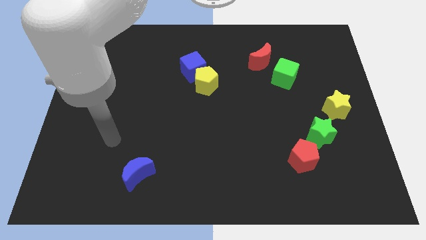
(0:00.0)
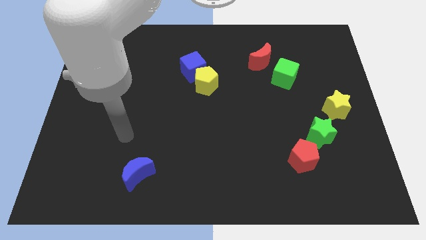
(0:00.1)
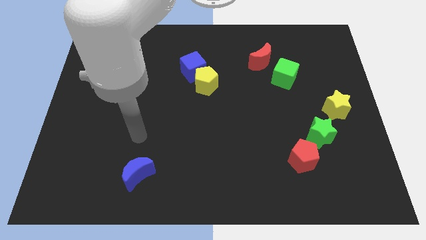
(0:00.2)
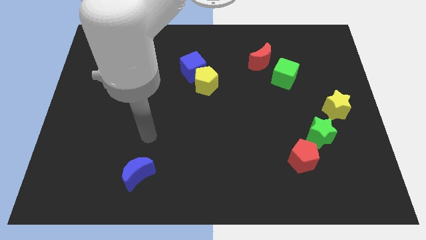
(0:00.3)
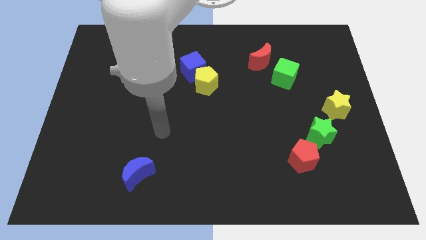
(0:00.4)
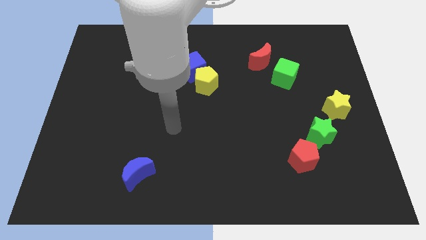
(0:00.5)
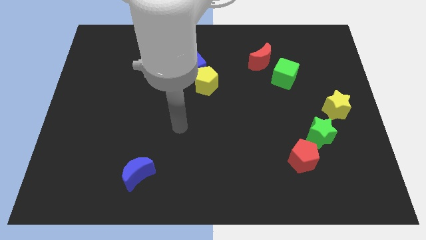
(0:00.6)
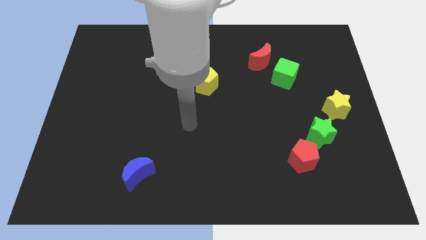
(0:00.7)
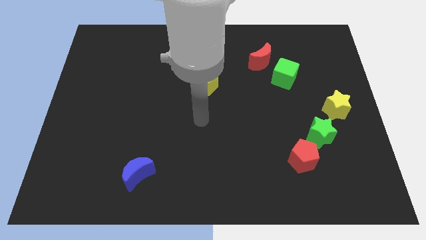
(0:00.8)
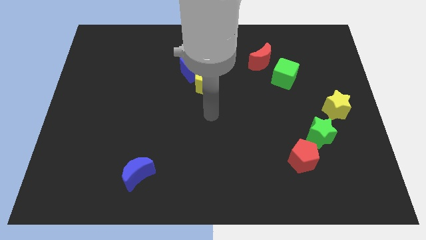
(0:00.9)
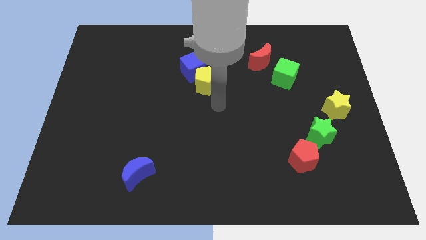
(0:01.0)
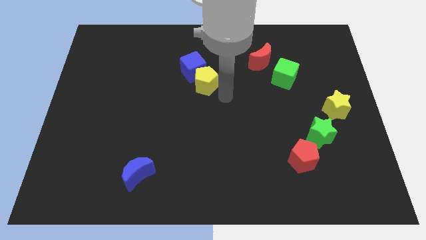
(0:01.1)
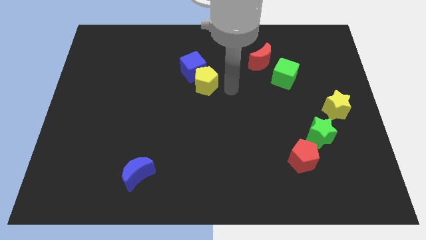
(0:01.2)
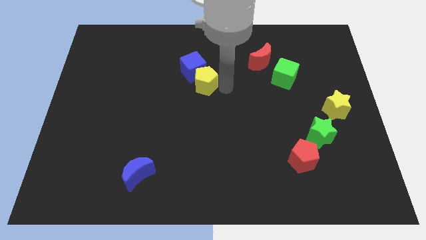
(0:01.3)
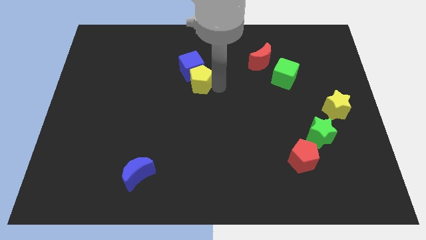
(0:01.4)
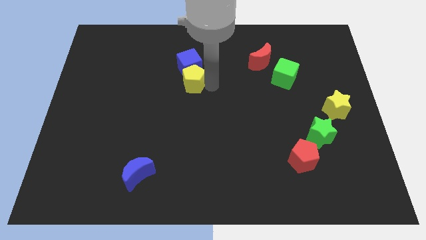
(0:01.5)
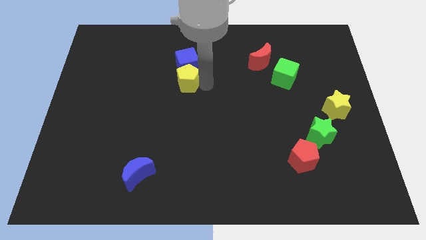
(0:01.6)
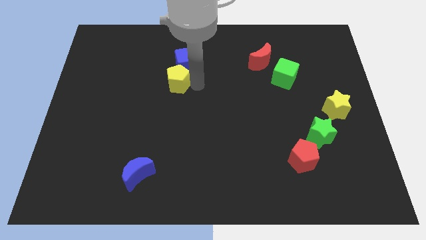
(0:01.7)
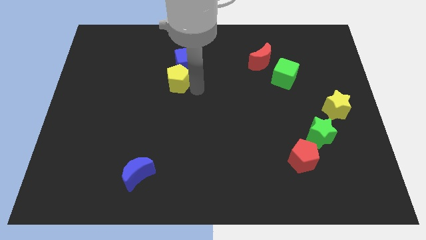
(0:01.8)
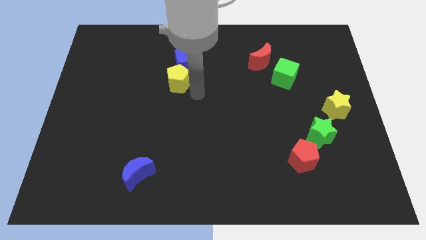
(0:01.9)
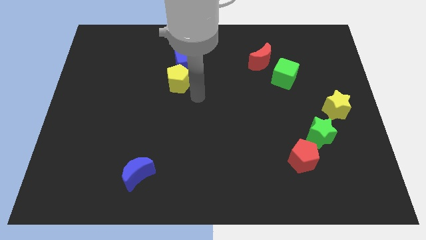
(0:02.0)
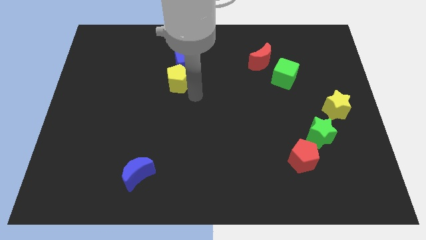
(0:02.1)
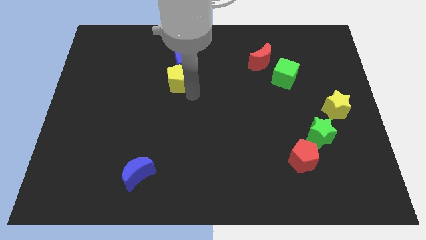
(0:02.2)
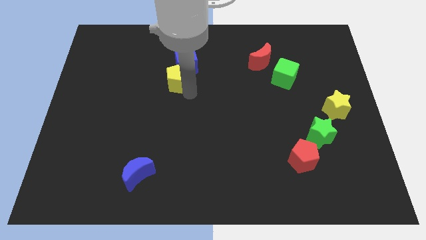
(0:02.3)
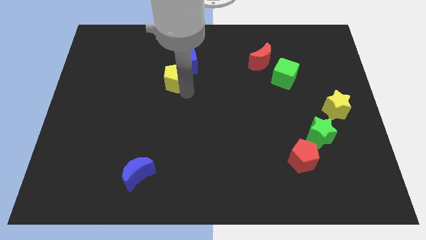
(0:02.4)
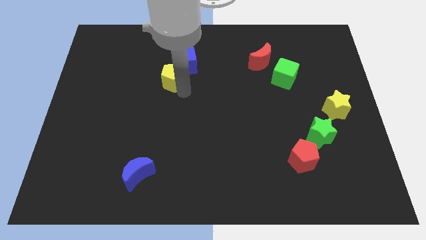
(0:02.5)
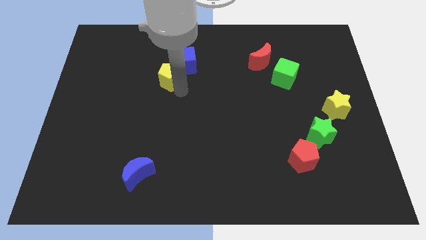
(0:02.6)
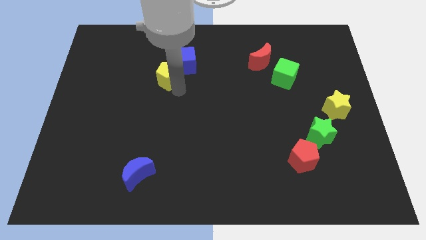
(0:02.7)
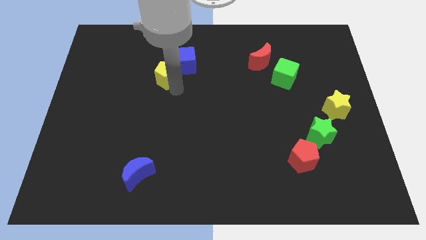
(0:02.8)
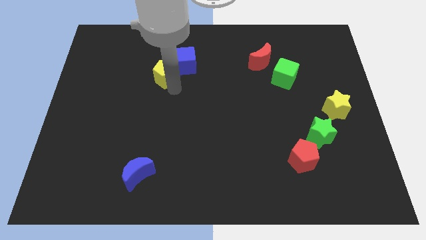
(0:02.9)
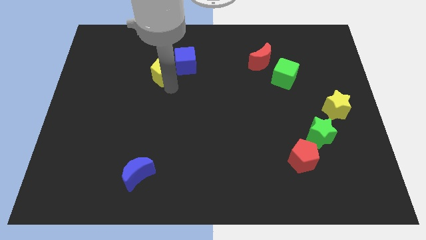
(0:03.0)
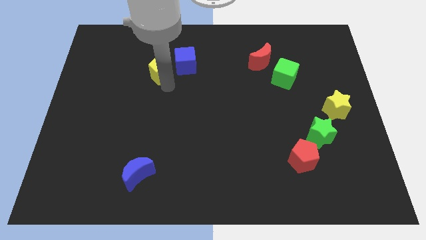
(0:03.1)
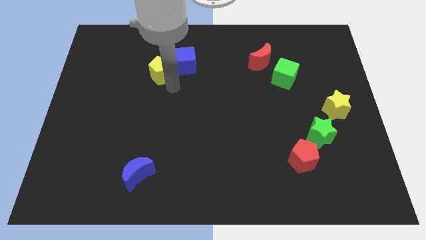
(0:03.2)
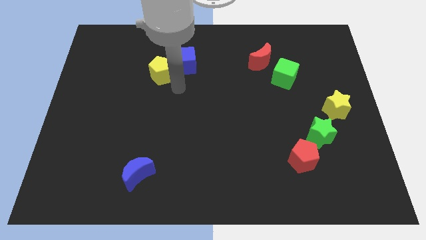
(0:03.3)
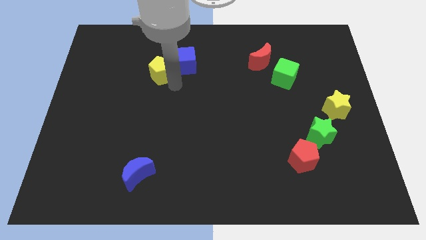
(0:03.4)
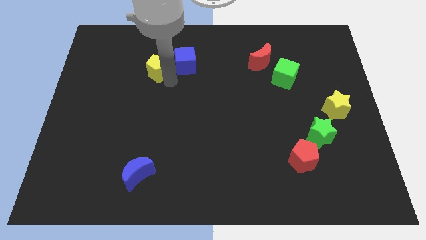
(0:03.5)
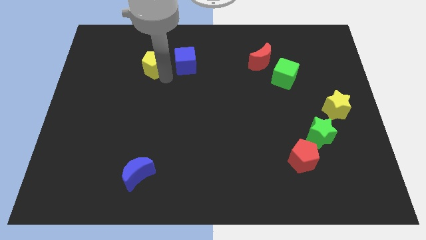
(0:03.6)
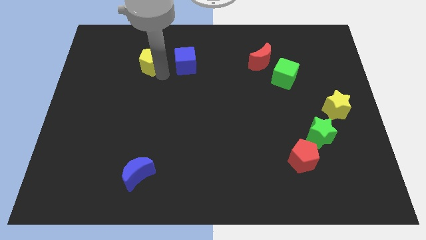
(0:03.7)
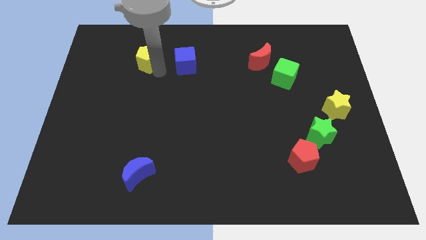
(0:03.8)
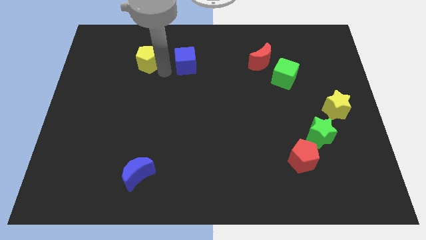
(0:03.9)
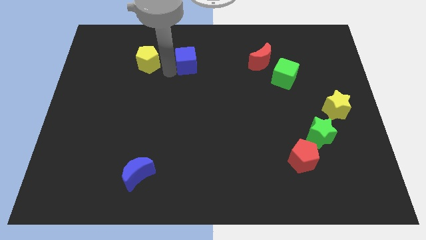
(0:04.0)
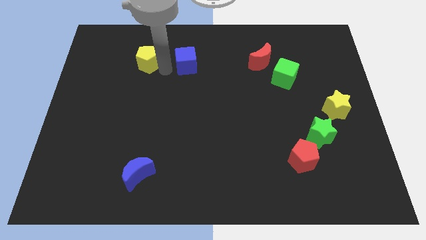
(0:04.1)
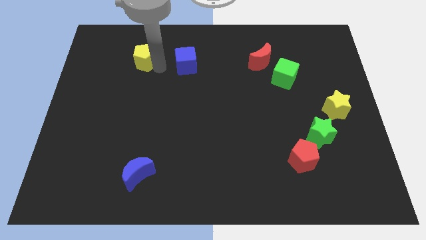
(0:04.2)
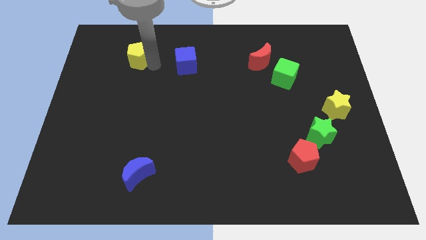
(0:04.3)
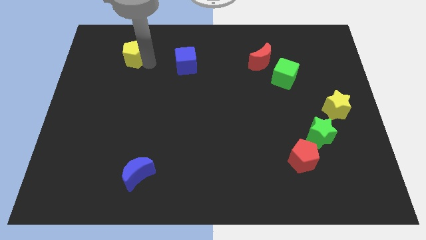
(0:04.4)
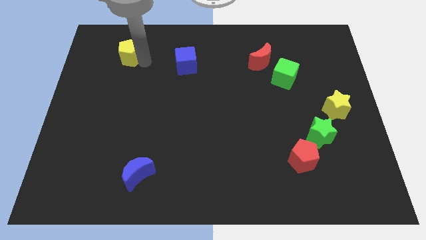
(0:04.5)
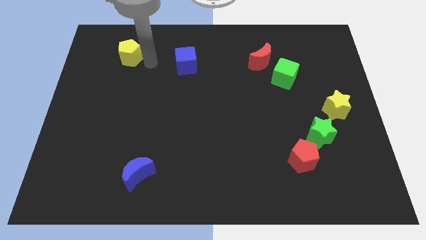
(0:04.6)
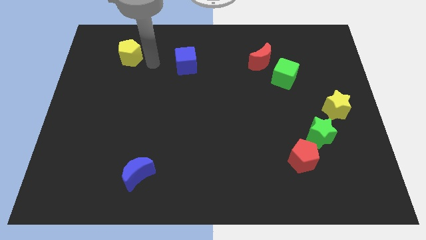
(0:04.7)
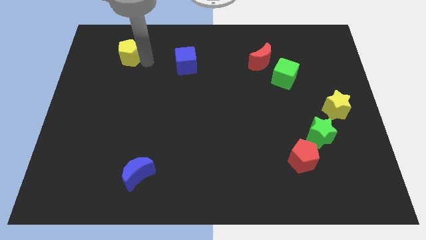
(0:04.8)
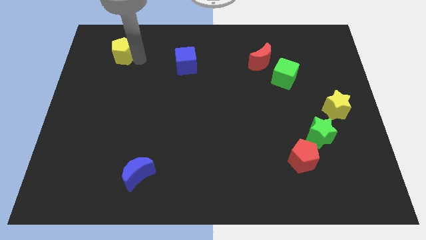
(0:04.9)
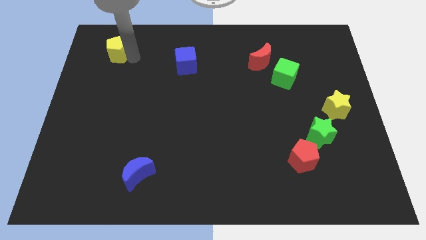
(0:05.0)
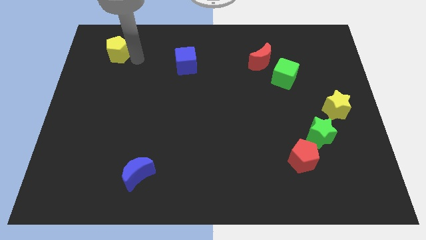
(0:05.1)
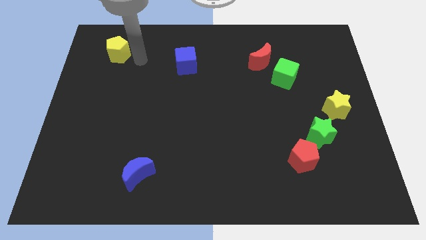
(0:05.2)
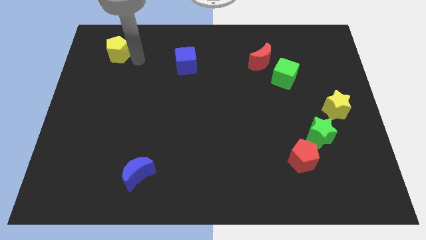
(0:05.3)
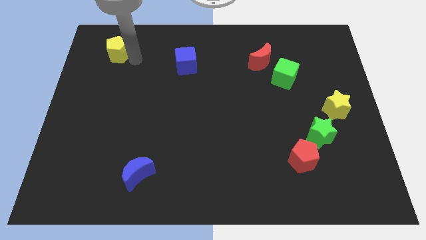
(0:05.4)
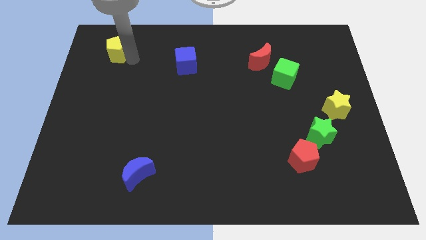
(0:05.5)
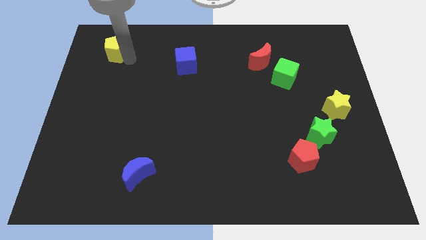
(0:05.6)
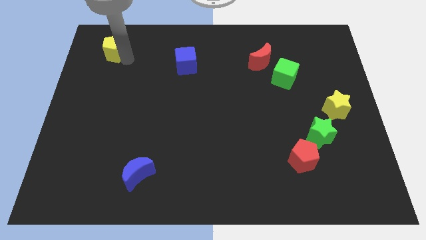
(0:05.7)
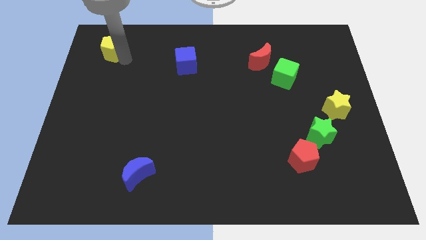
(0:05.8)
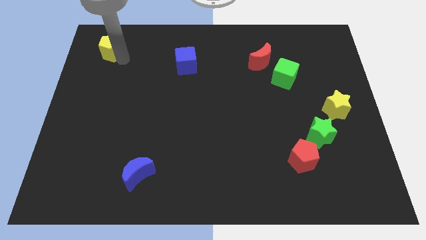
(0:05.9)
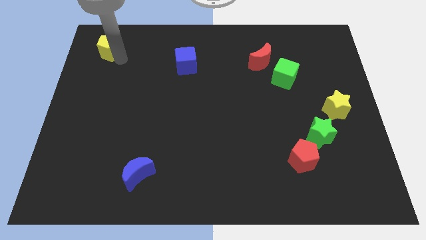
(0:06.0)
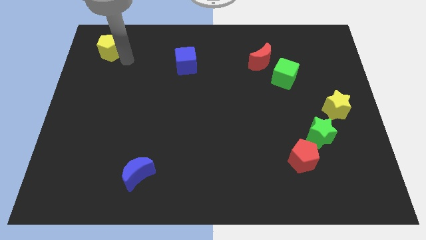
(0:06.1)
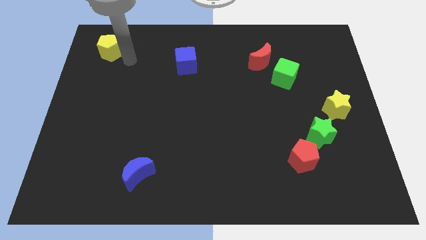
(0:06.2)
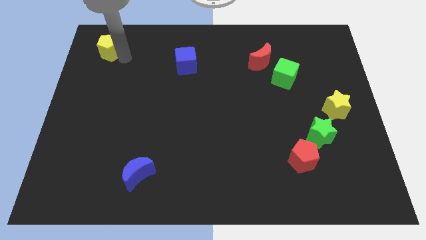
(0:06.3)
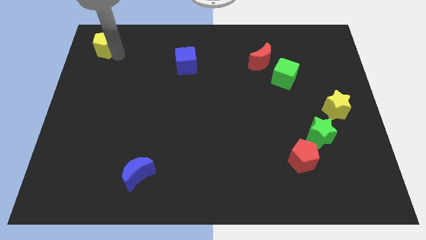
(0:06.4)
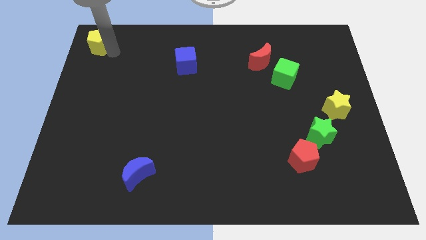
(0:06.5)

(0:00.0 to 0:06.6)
push the yellow pentagon to the upper left corner
